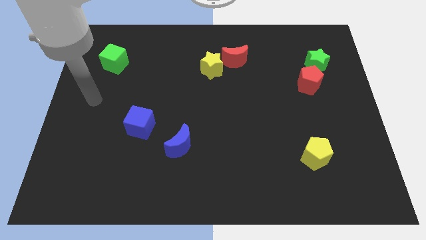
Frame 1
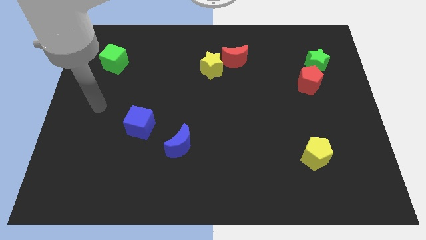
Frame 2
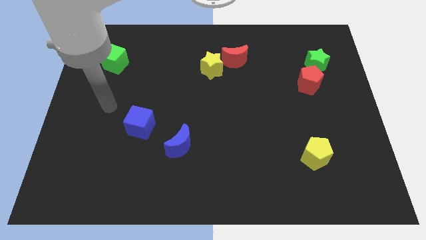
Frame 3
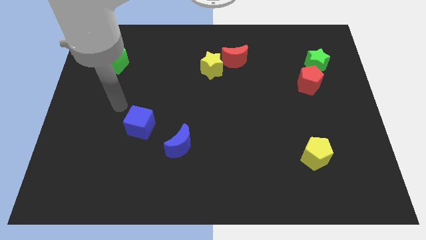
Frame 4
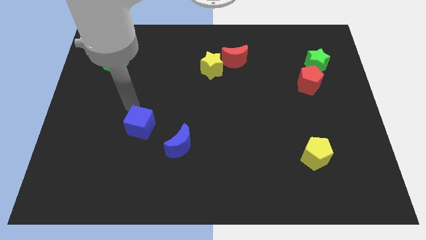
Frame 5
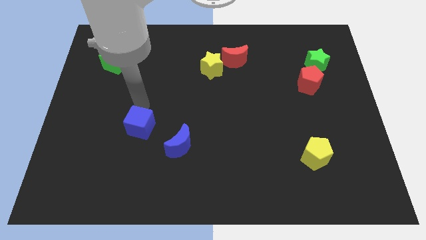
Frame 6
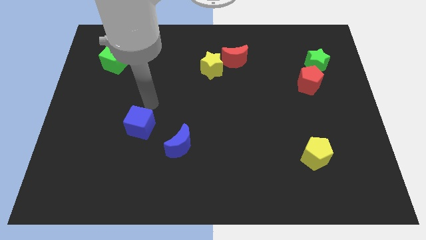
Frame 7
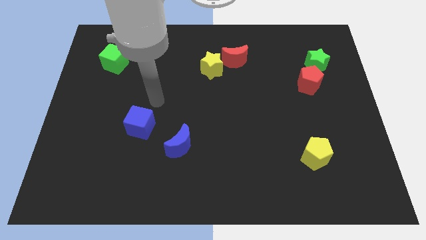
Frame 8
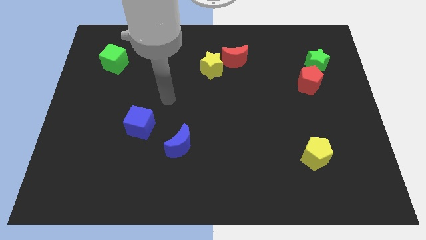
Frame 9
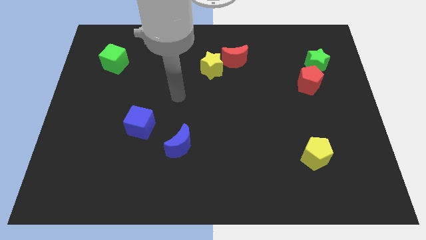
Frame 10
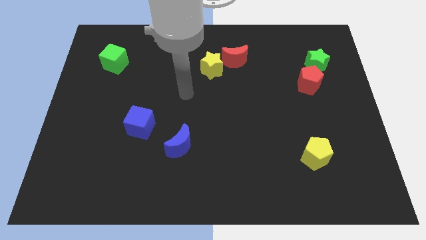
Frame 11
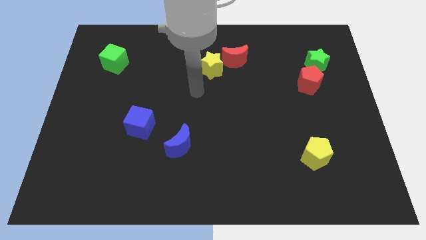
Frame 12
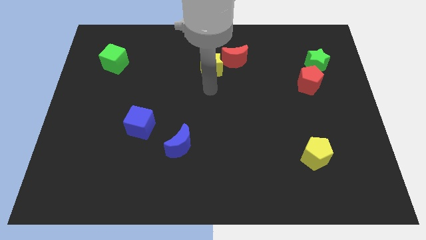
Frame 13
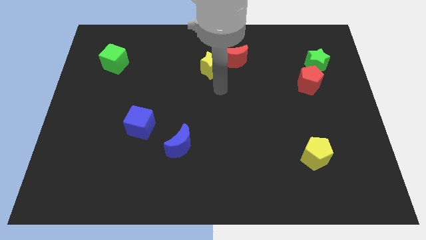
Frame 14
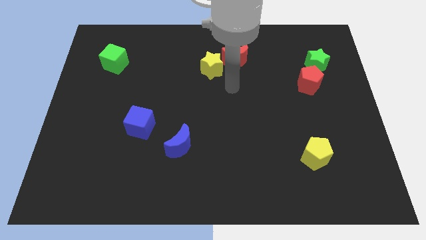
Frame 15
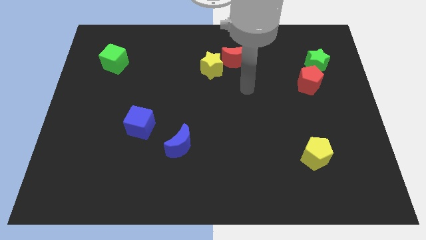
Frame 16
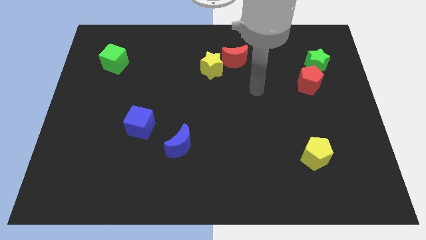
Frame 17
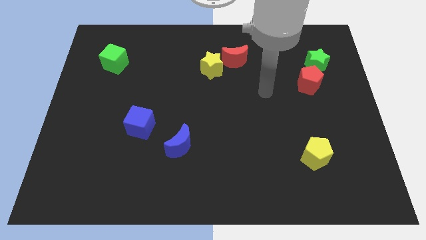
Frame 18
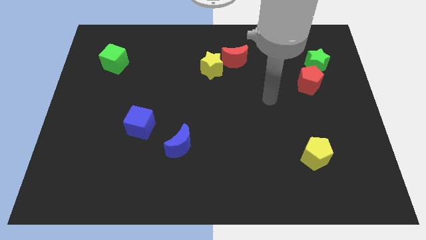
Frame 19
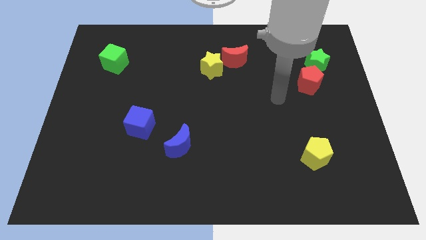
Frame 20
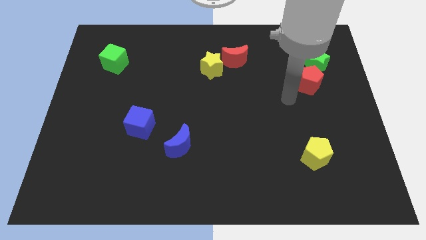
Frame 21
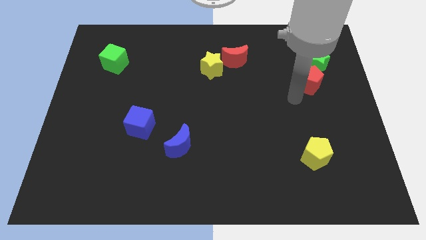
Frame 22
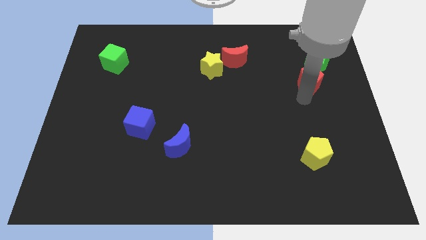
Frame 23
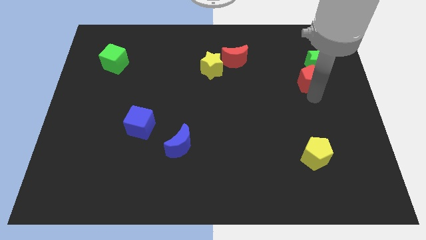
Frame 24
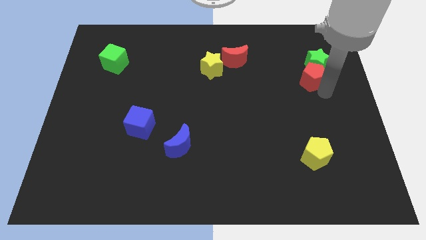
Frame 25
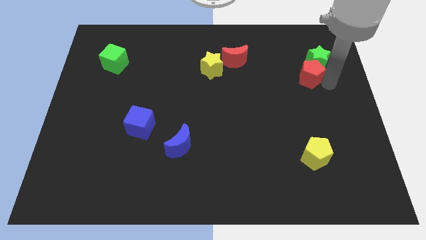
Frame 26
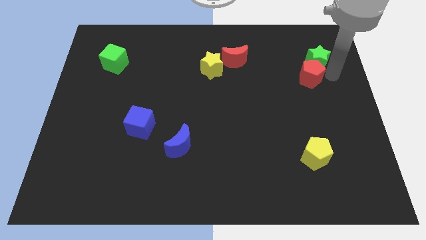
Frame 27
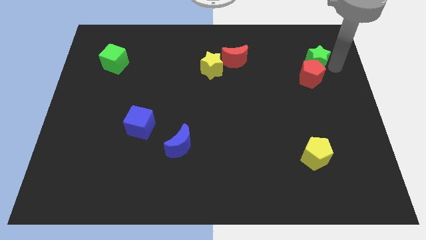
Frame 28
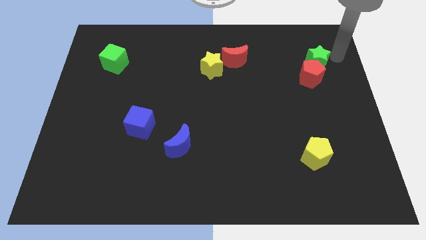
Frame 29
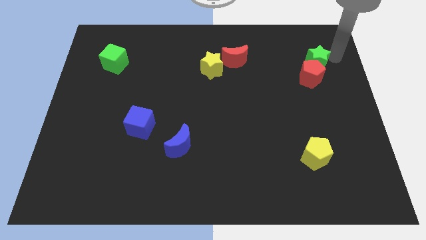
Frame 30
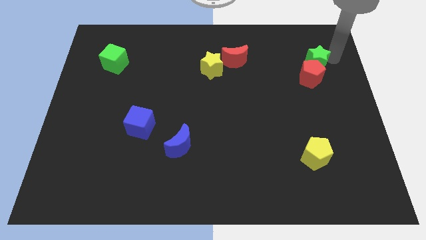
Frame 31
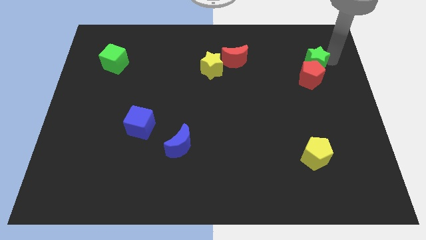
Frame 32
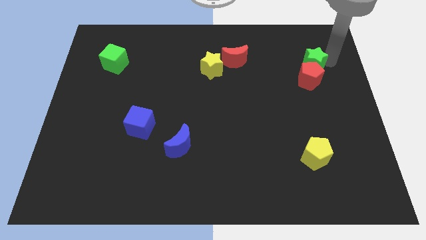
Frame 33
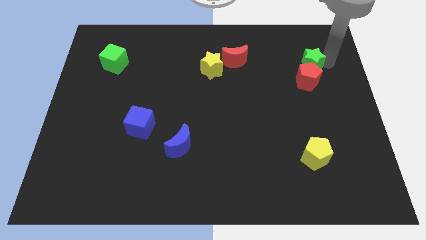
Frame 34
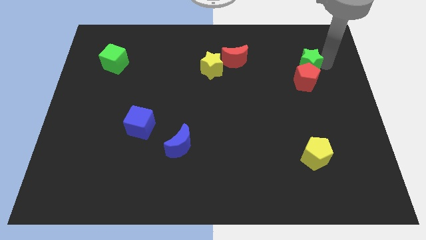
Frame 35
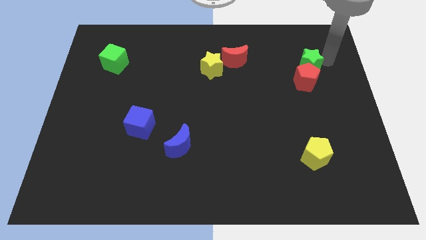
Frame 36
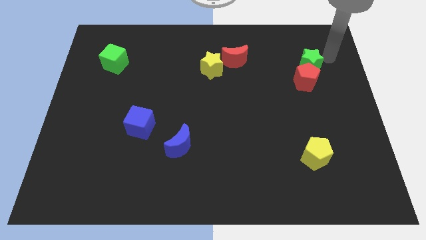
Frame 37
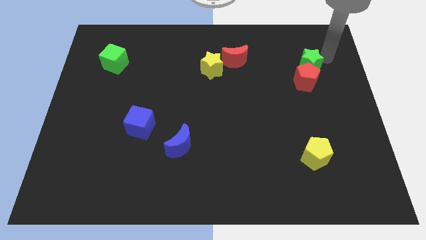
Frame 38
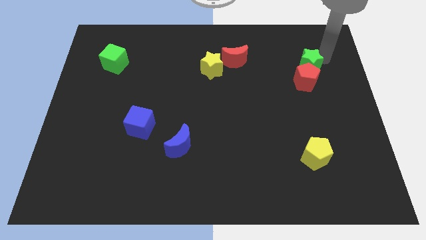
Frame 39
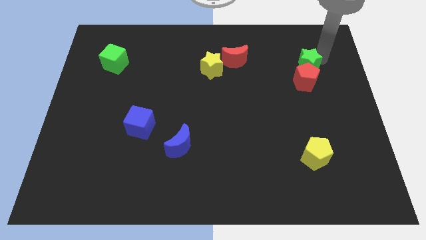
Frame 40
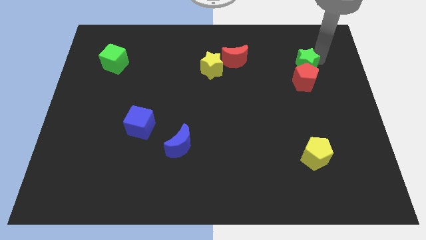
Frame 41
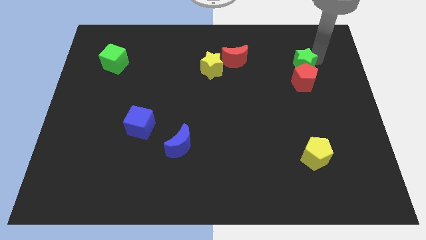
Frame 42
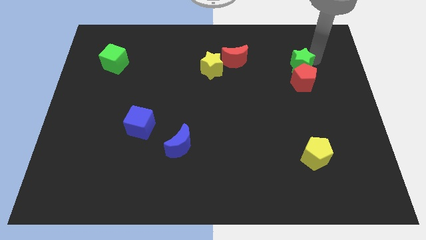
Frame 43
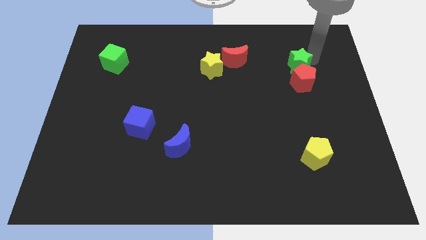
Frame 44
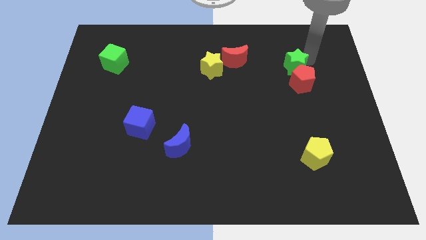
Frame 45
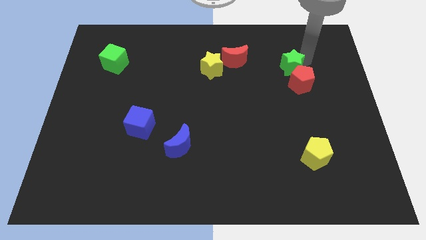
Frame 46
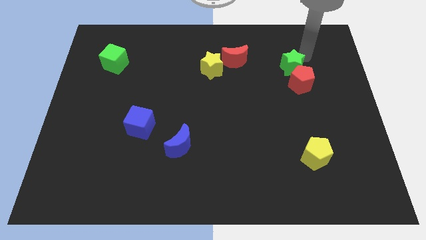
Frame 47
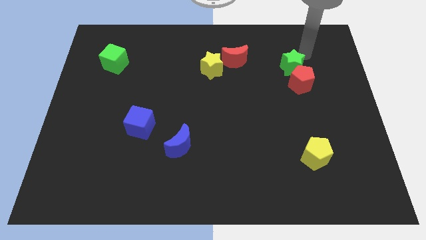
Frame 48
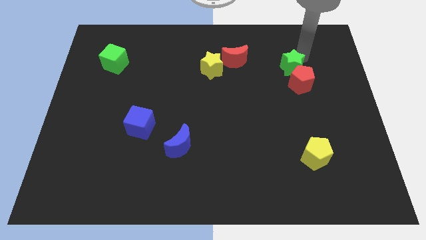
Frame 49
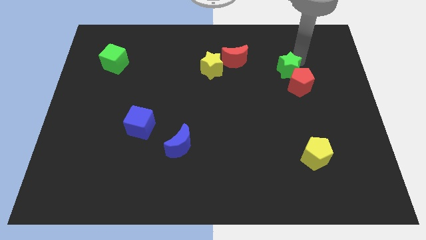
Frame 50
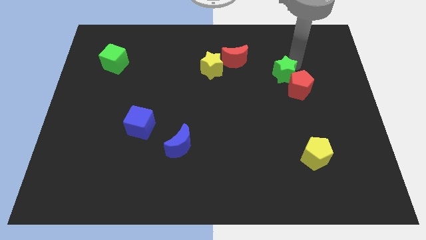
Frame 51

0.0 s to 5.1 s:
slightly push the green star diagonally down and to the left

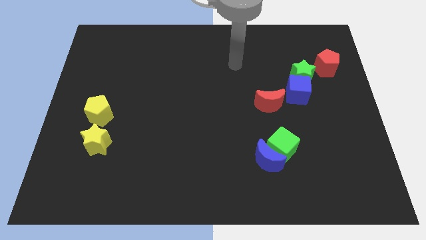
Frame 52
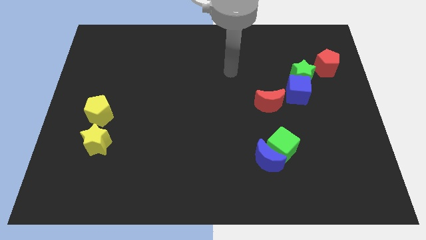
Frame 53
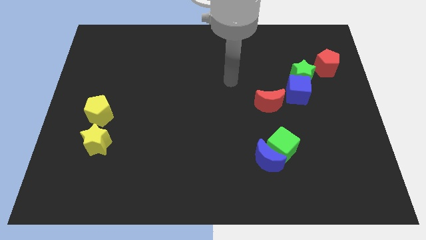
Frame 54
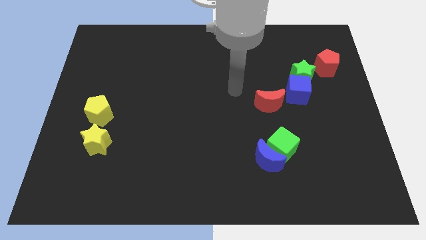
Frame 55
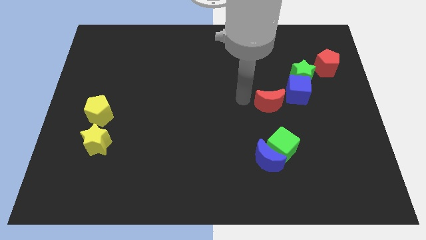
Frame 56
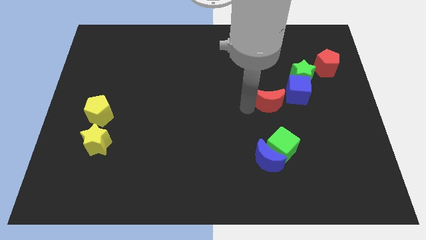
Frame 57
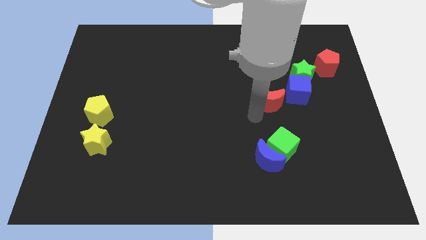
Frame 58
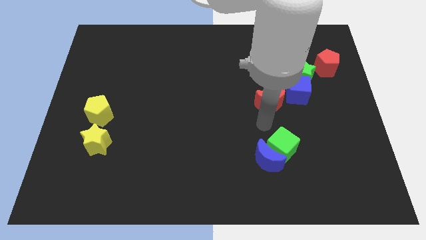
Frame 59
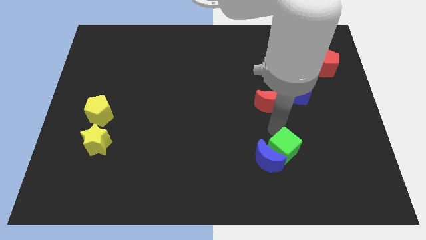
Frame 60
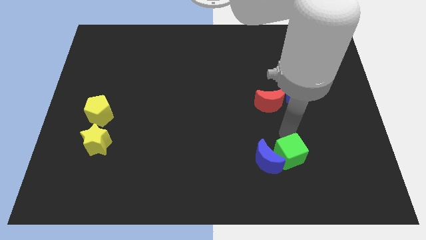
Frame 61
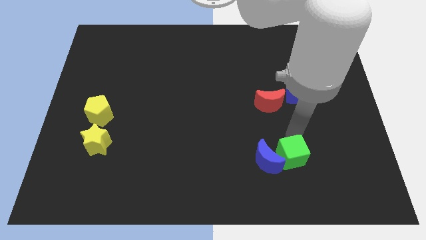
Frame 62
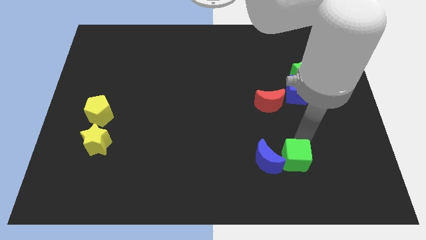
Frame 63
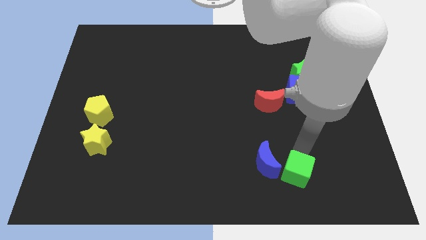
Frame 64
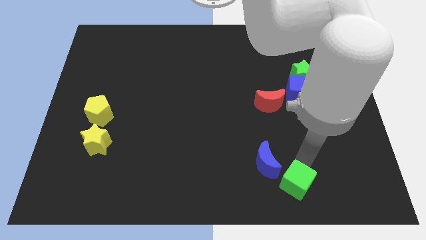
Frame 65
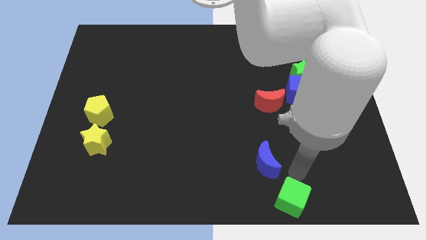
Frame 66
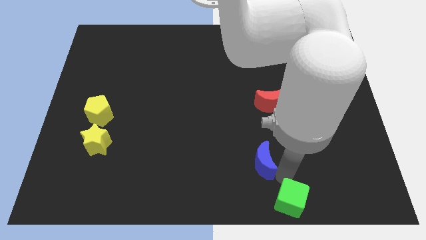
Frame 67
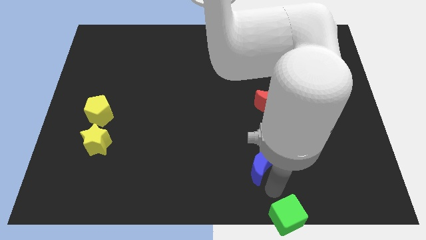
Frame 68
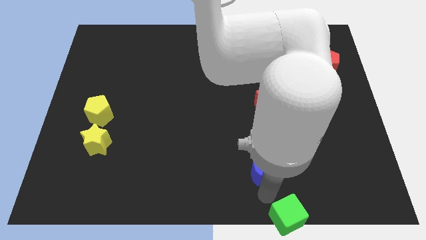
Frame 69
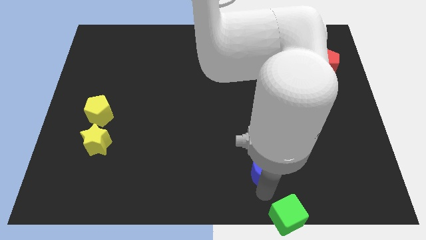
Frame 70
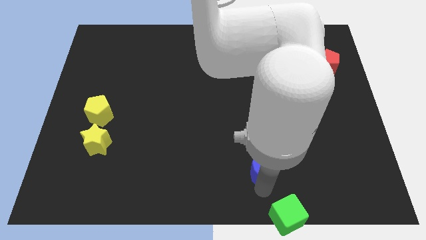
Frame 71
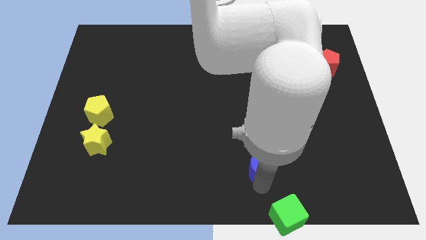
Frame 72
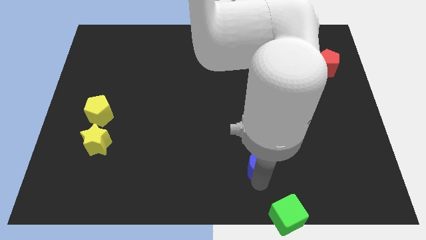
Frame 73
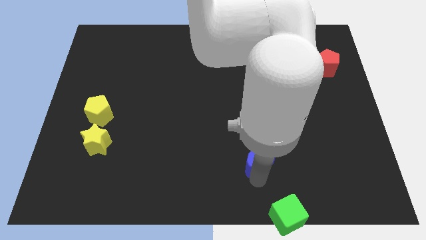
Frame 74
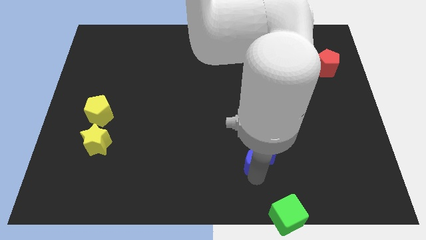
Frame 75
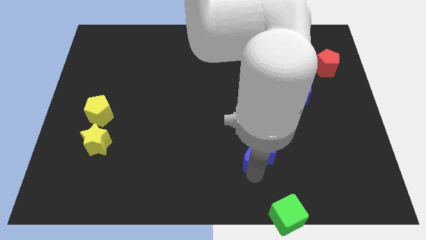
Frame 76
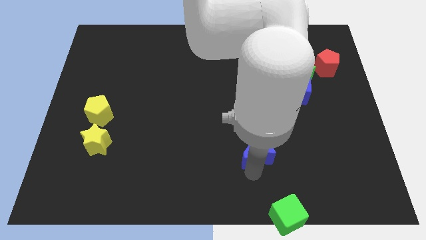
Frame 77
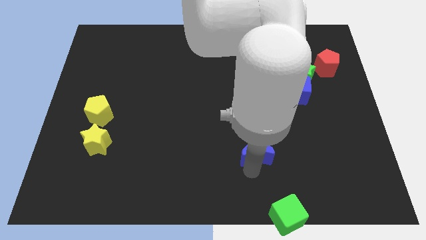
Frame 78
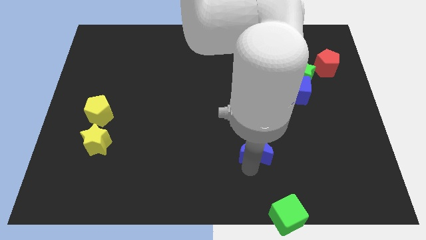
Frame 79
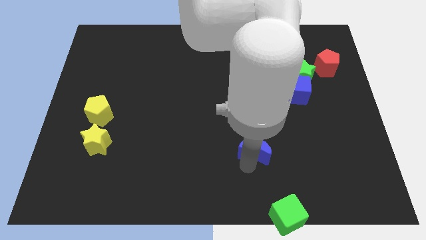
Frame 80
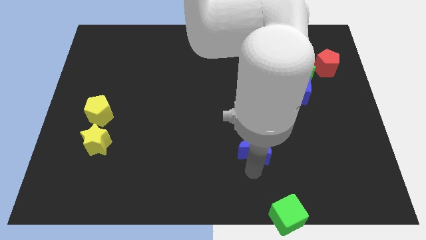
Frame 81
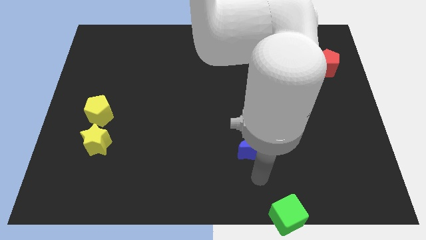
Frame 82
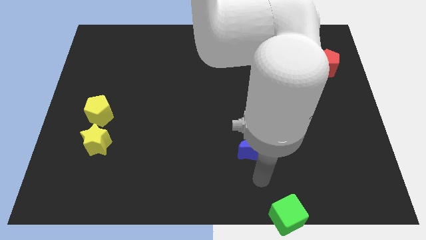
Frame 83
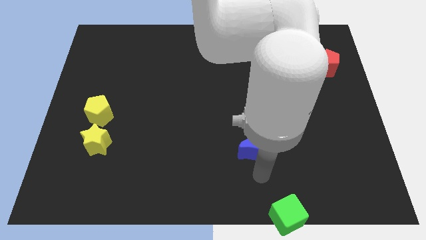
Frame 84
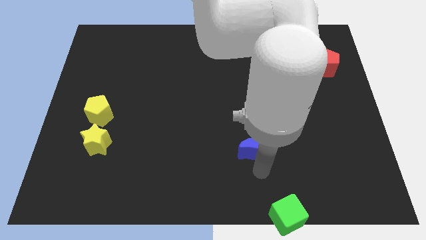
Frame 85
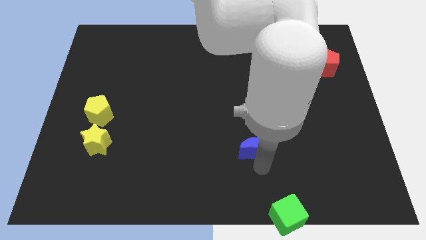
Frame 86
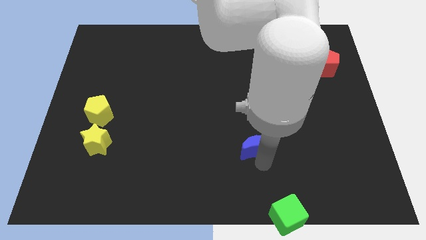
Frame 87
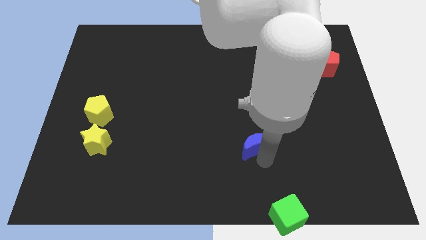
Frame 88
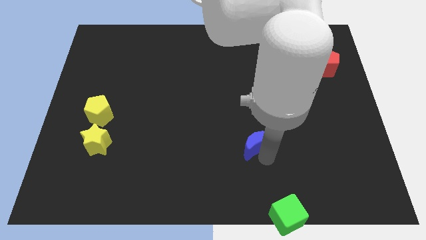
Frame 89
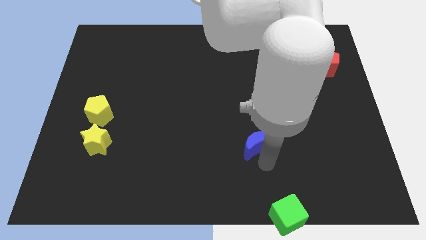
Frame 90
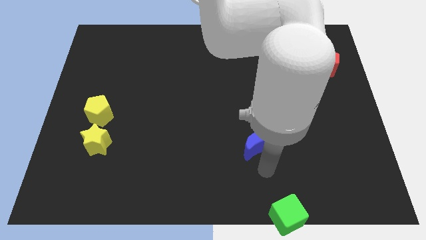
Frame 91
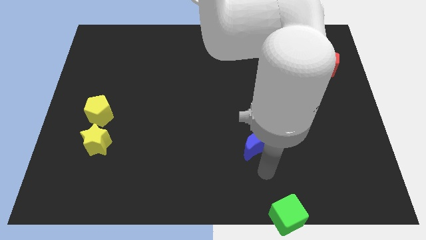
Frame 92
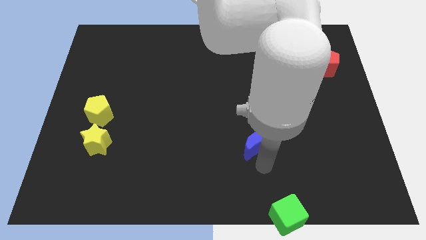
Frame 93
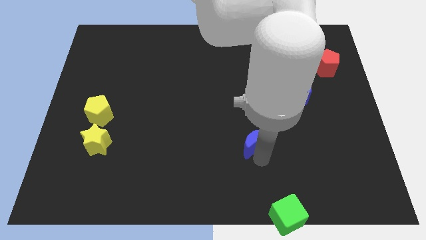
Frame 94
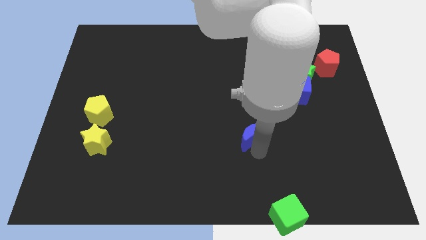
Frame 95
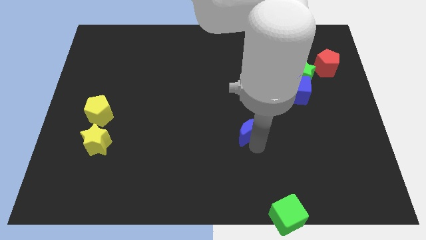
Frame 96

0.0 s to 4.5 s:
slightly move the blue moon up
